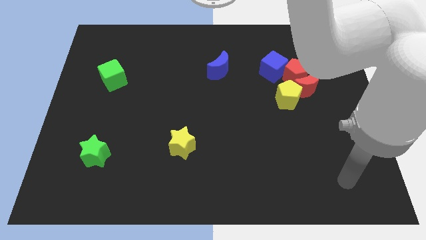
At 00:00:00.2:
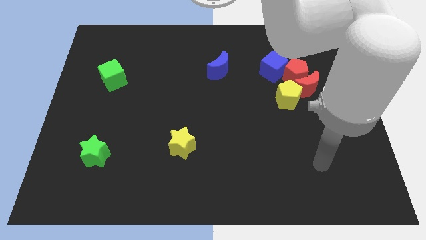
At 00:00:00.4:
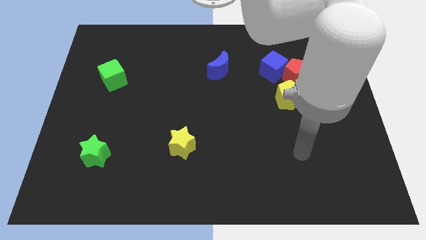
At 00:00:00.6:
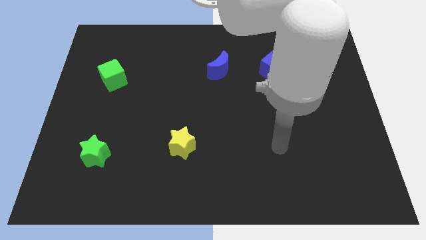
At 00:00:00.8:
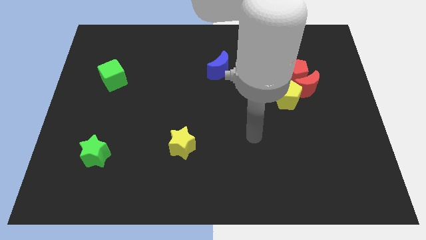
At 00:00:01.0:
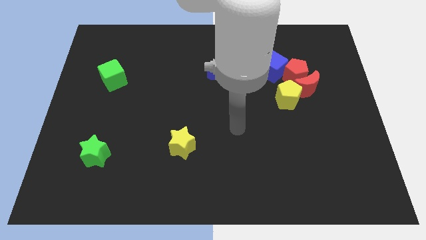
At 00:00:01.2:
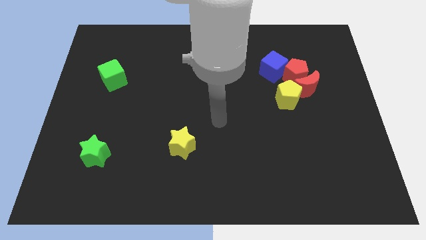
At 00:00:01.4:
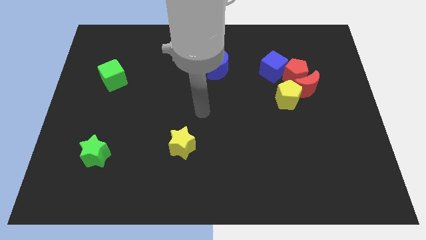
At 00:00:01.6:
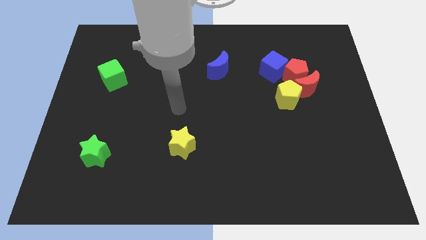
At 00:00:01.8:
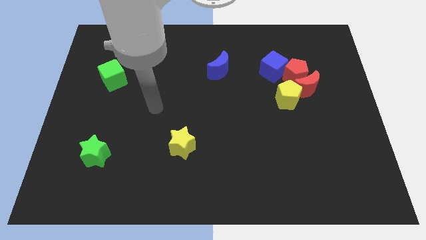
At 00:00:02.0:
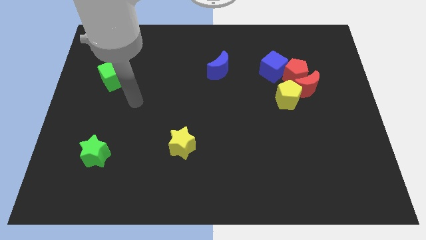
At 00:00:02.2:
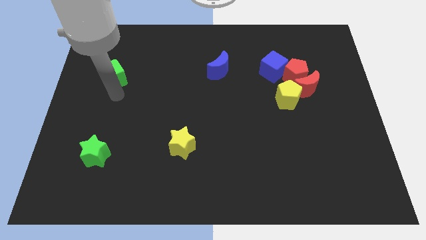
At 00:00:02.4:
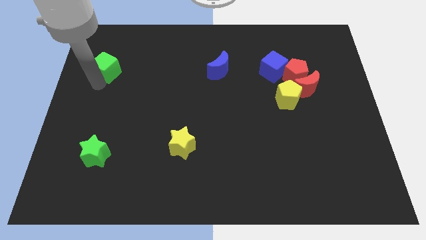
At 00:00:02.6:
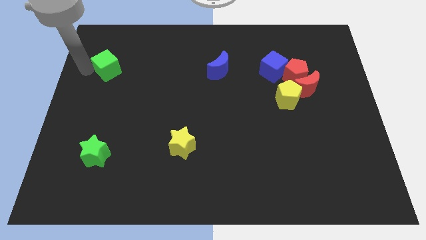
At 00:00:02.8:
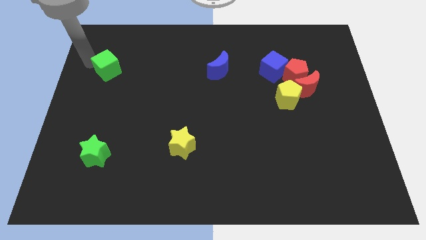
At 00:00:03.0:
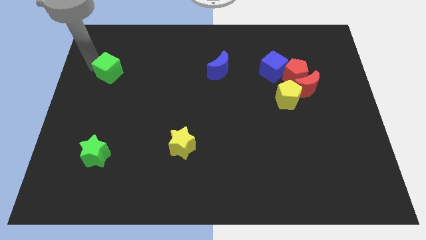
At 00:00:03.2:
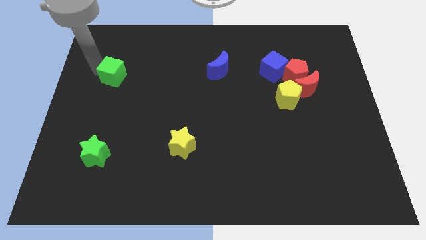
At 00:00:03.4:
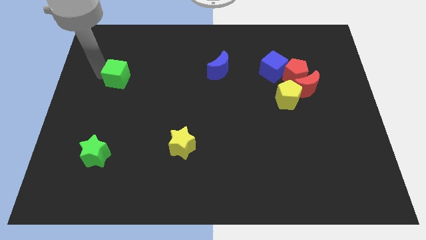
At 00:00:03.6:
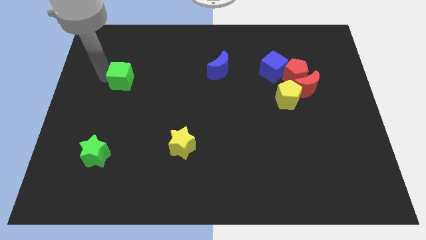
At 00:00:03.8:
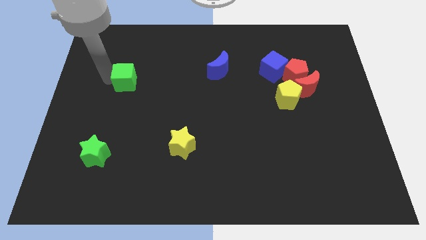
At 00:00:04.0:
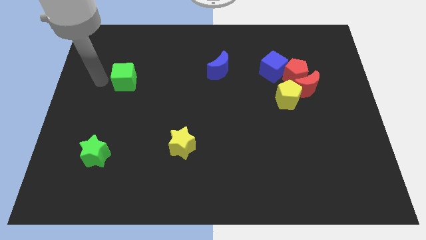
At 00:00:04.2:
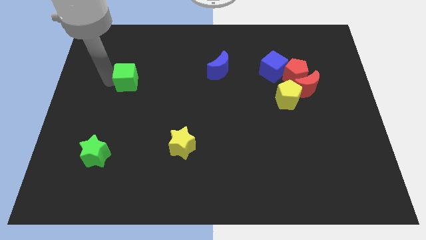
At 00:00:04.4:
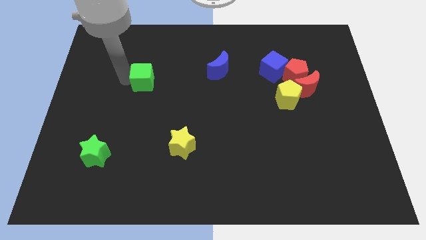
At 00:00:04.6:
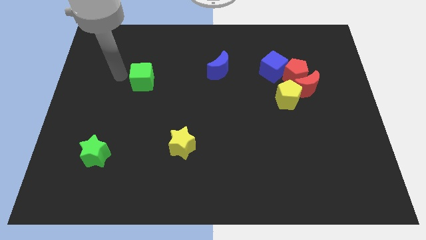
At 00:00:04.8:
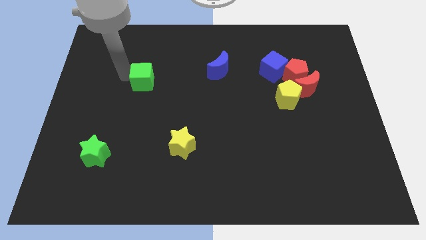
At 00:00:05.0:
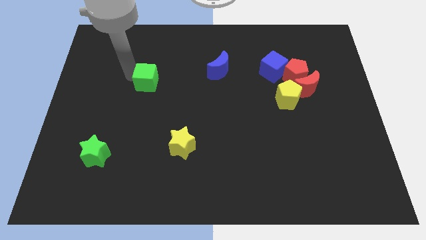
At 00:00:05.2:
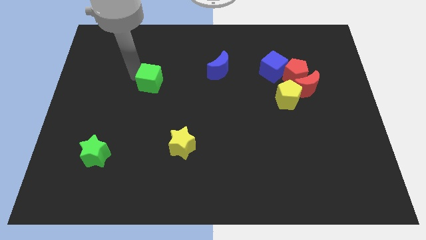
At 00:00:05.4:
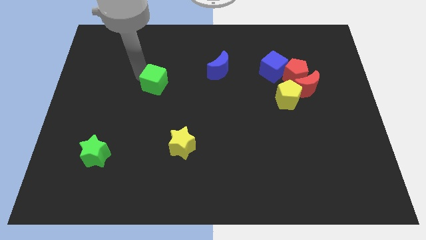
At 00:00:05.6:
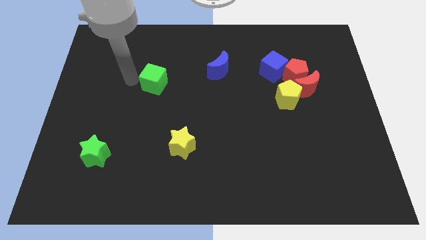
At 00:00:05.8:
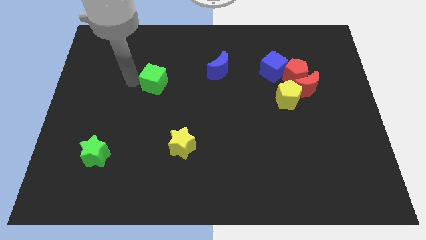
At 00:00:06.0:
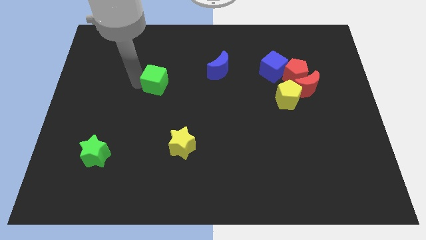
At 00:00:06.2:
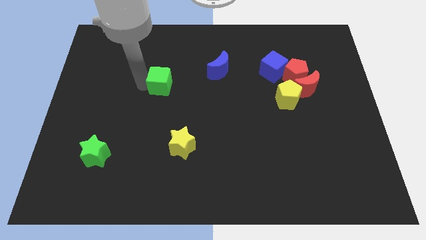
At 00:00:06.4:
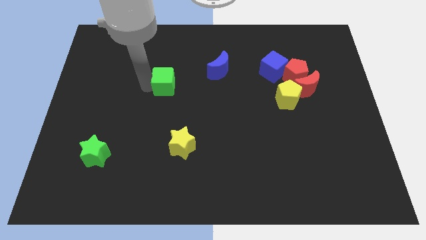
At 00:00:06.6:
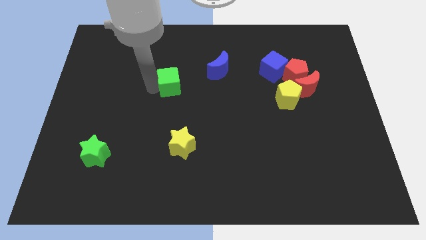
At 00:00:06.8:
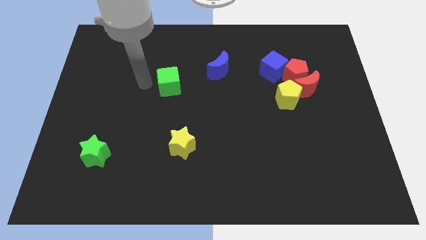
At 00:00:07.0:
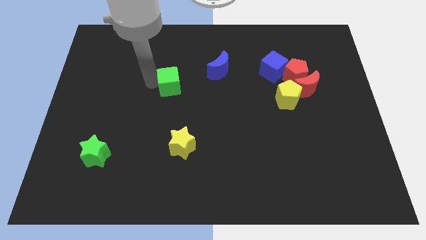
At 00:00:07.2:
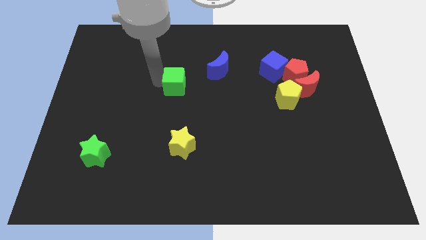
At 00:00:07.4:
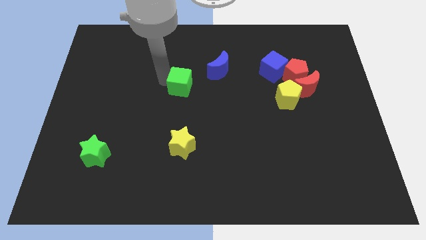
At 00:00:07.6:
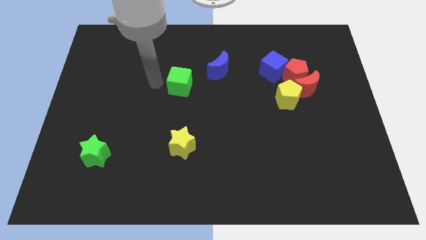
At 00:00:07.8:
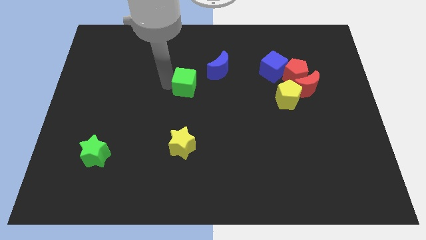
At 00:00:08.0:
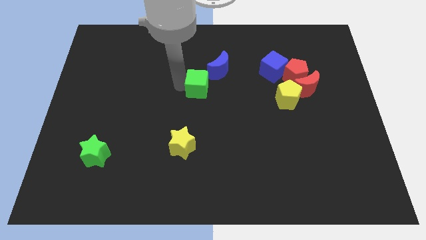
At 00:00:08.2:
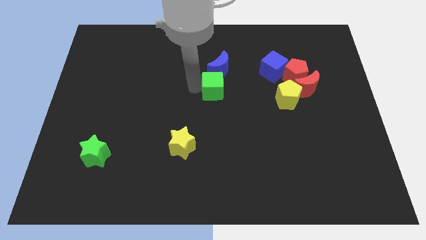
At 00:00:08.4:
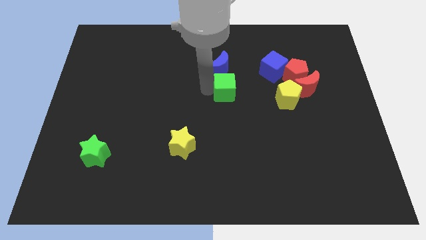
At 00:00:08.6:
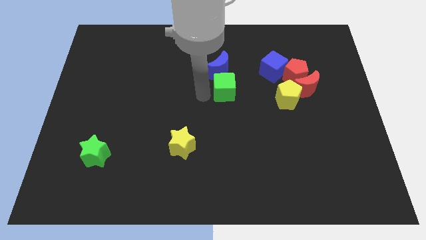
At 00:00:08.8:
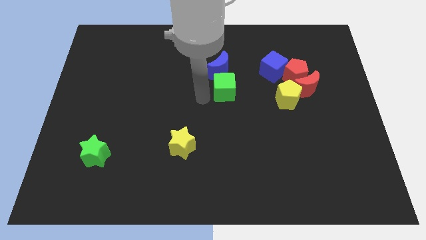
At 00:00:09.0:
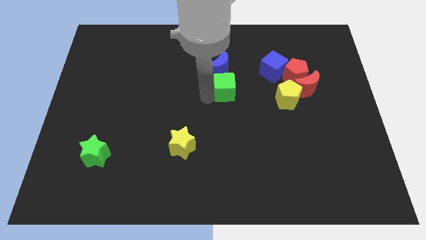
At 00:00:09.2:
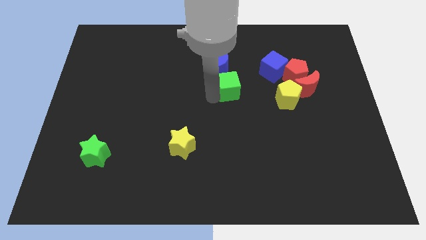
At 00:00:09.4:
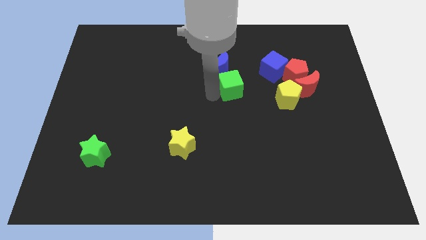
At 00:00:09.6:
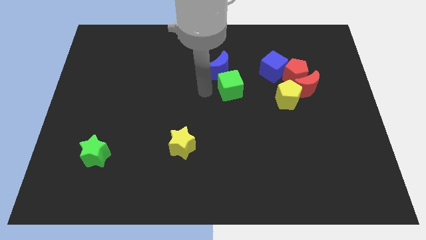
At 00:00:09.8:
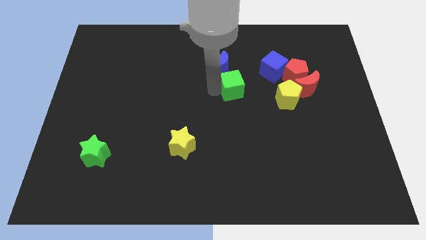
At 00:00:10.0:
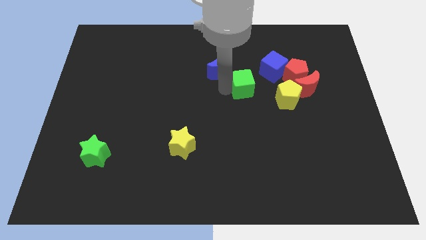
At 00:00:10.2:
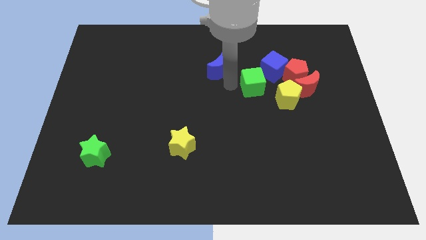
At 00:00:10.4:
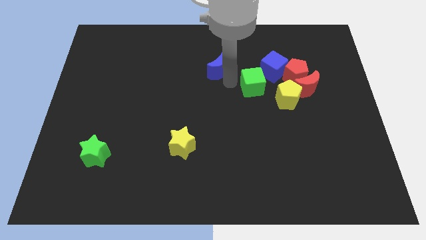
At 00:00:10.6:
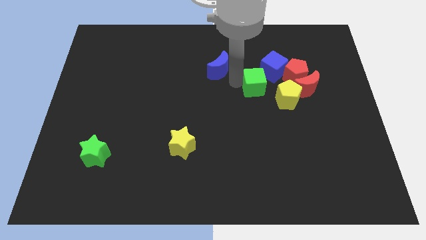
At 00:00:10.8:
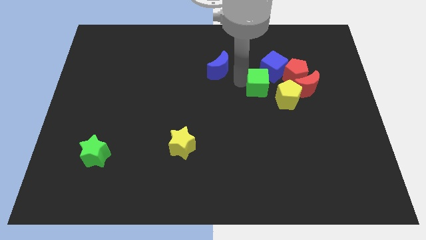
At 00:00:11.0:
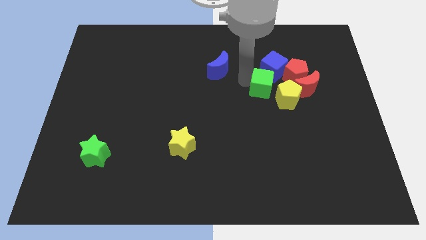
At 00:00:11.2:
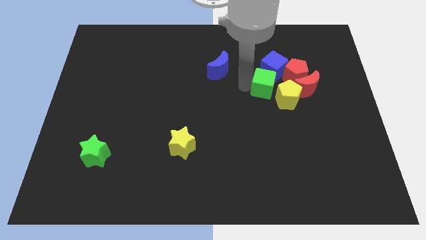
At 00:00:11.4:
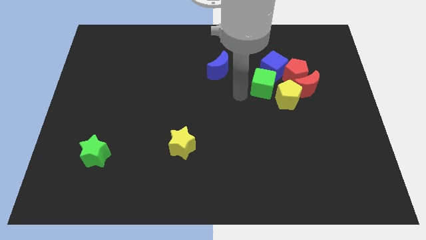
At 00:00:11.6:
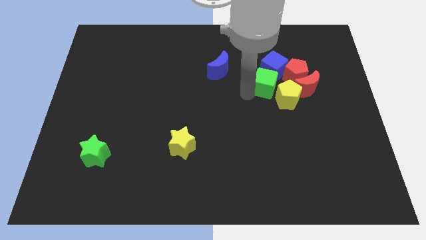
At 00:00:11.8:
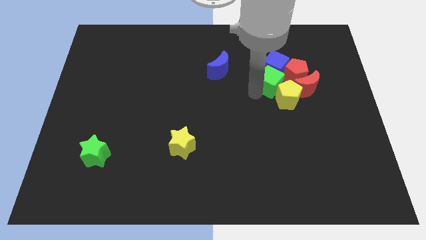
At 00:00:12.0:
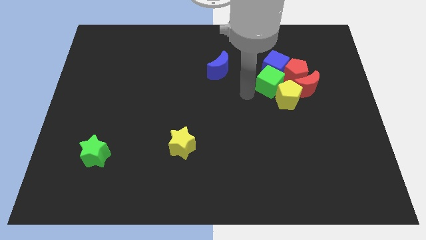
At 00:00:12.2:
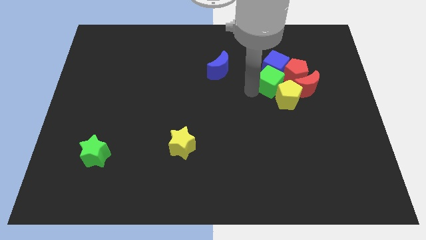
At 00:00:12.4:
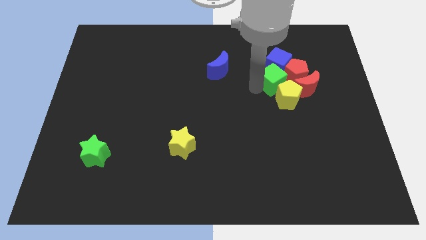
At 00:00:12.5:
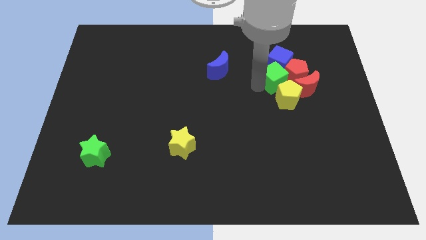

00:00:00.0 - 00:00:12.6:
put the green cube towards the red pentagon

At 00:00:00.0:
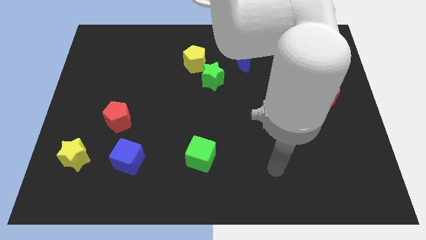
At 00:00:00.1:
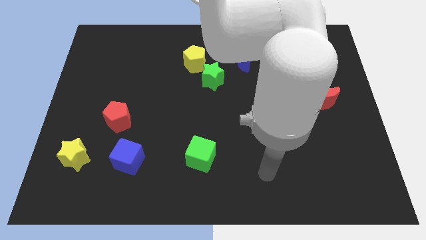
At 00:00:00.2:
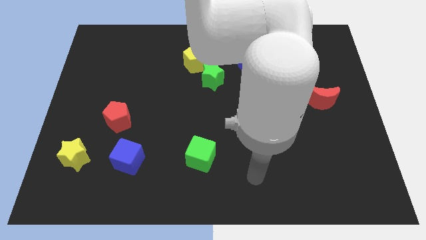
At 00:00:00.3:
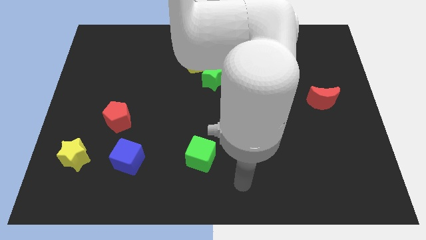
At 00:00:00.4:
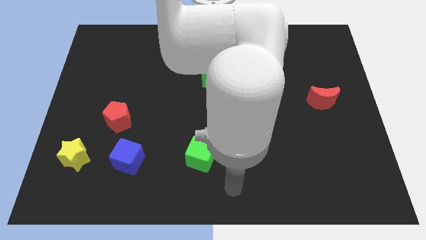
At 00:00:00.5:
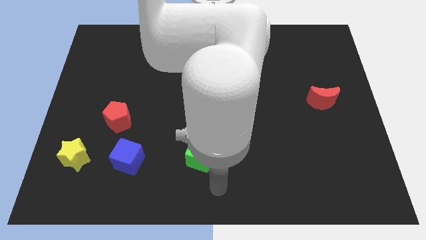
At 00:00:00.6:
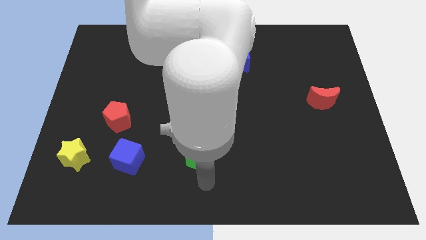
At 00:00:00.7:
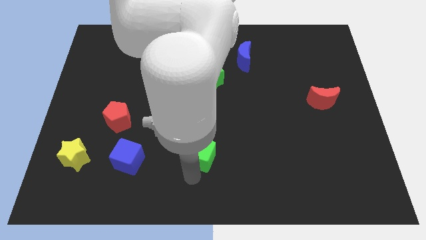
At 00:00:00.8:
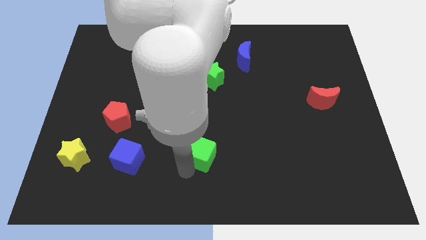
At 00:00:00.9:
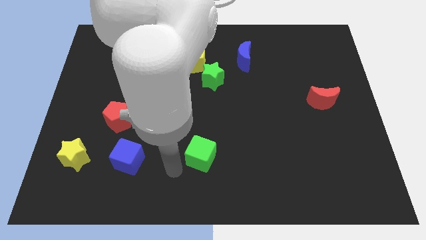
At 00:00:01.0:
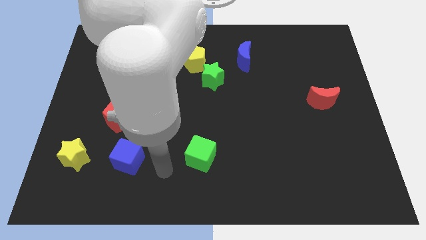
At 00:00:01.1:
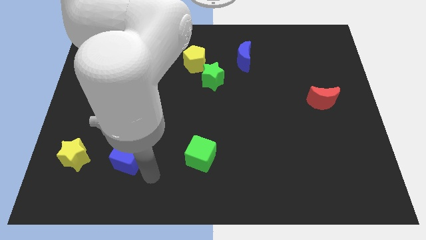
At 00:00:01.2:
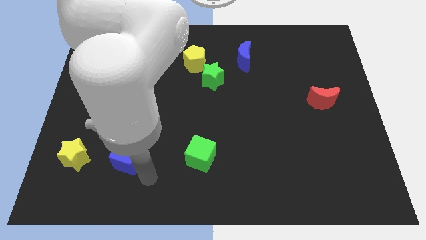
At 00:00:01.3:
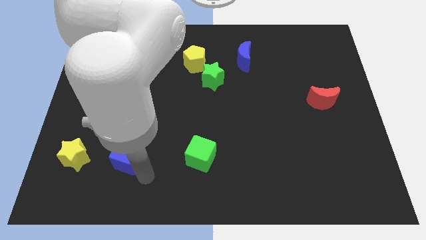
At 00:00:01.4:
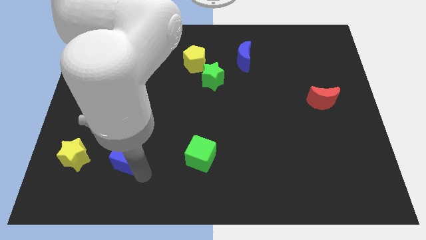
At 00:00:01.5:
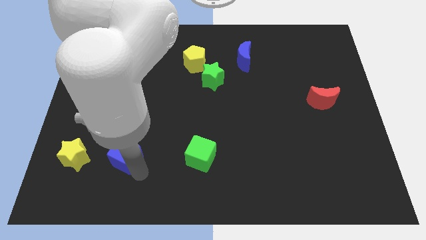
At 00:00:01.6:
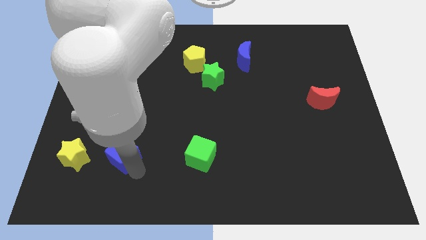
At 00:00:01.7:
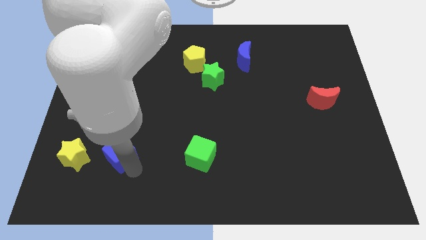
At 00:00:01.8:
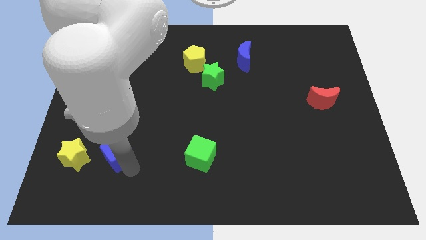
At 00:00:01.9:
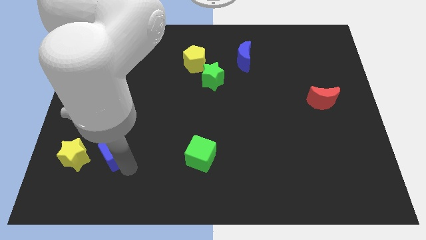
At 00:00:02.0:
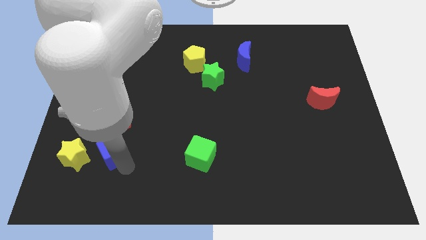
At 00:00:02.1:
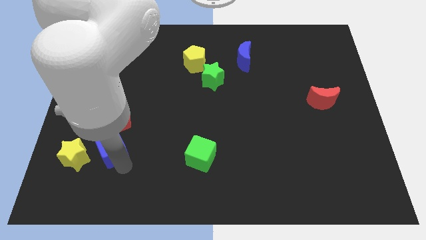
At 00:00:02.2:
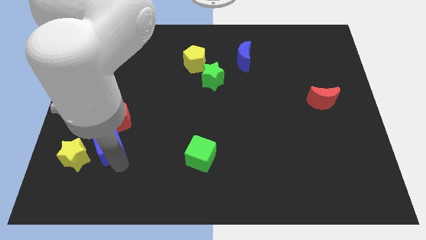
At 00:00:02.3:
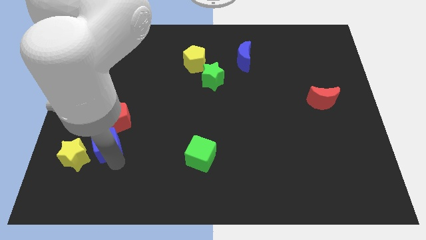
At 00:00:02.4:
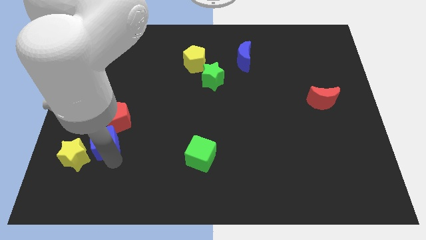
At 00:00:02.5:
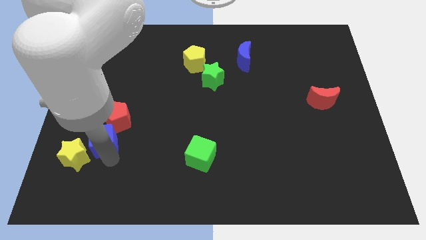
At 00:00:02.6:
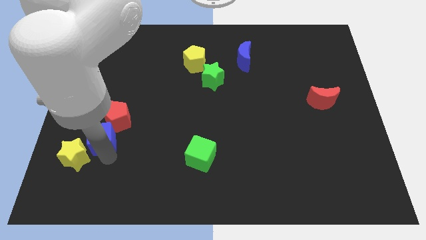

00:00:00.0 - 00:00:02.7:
move the blue cube next to the red pentagon
